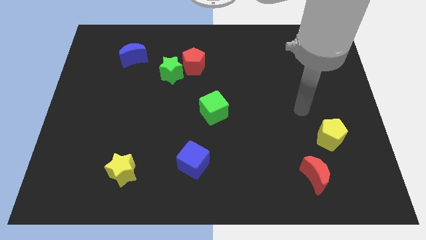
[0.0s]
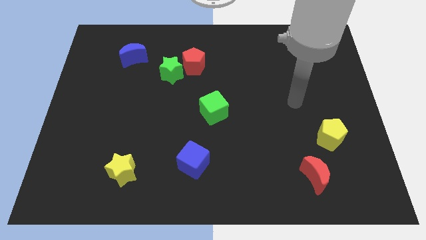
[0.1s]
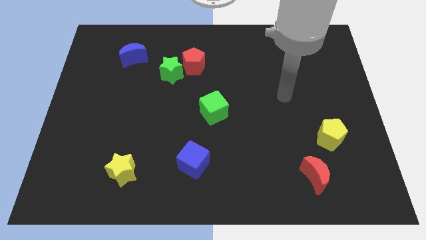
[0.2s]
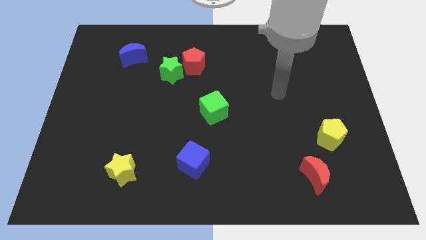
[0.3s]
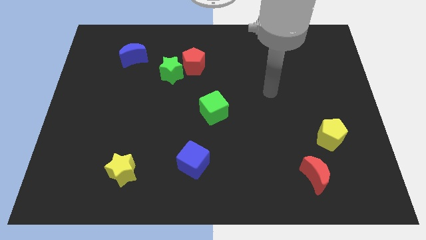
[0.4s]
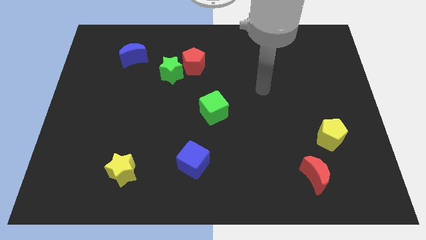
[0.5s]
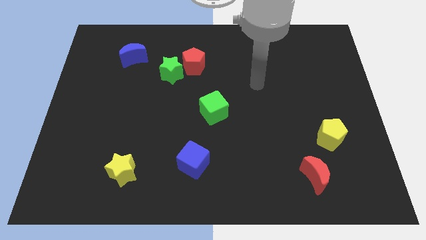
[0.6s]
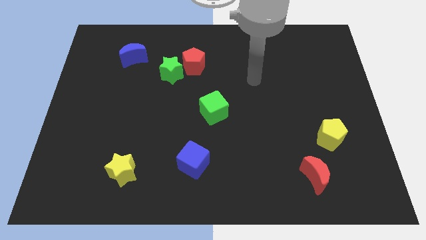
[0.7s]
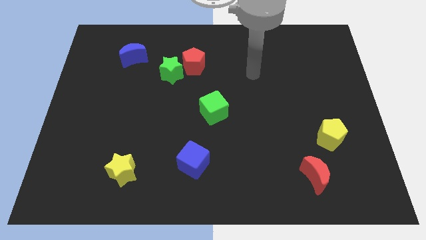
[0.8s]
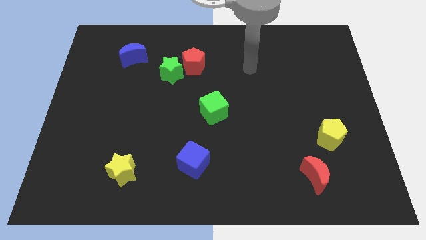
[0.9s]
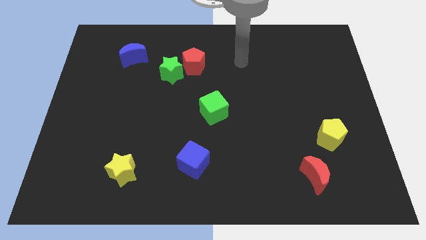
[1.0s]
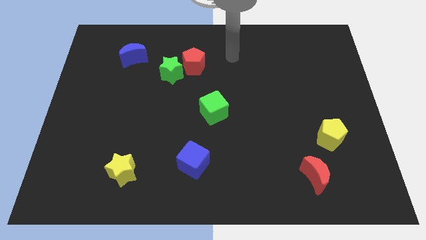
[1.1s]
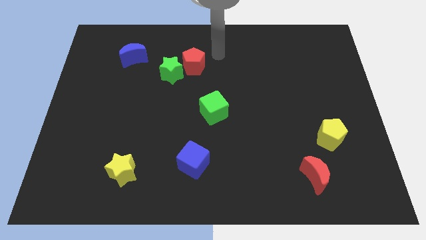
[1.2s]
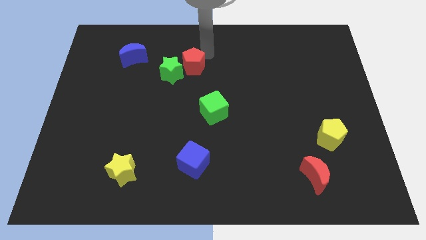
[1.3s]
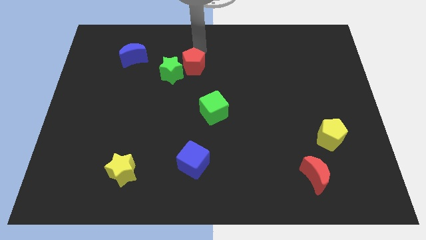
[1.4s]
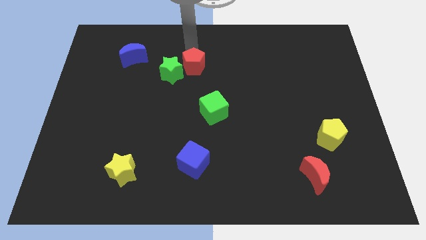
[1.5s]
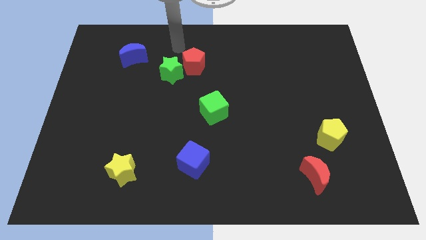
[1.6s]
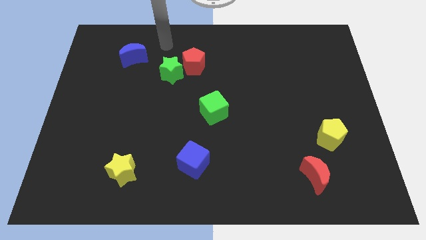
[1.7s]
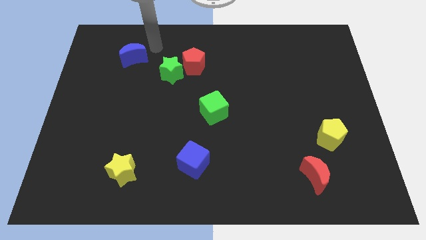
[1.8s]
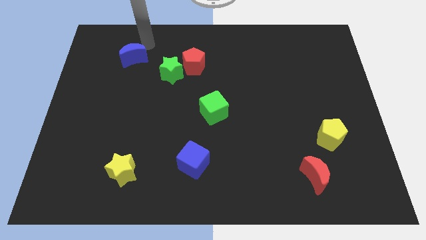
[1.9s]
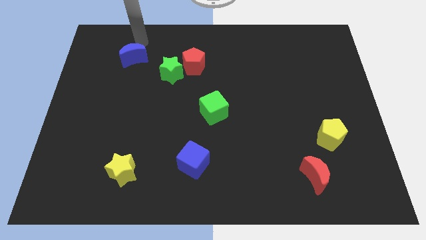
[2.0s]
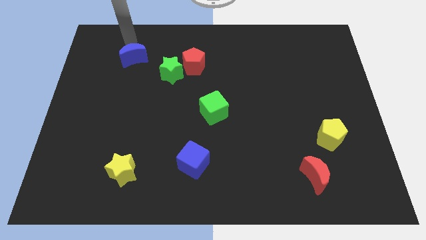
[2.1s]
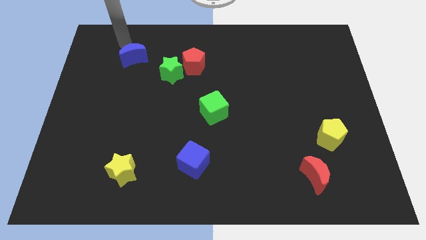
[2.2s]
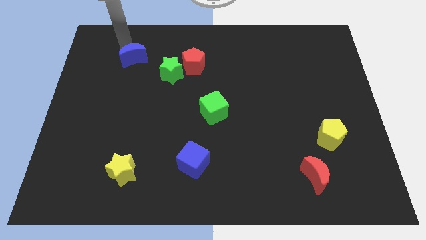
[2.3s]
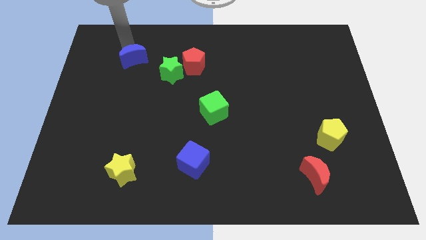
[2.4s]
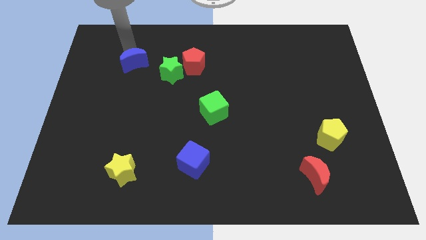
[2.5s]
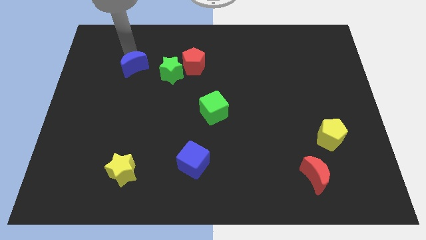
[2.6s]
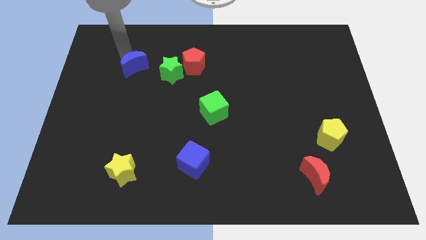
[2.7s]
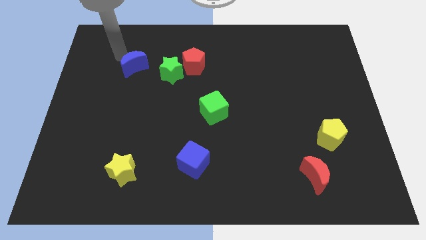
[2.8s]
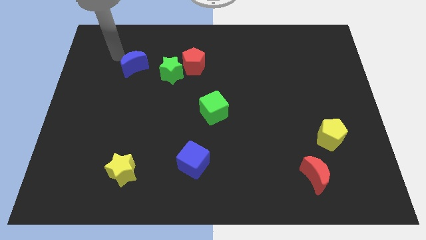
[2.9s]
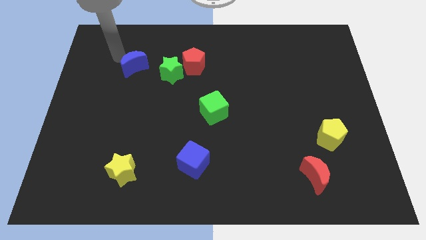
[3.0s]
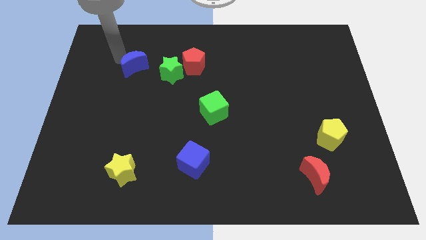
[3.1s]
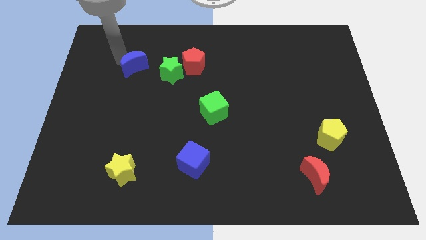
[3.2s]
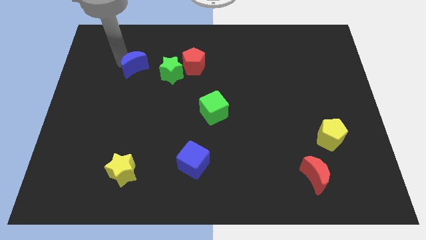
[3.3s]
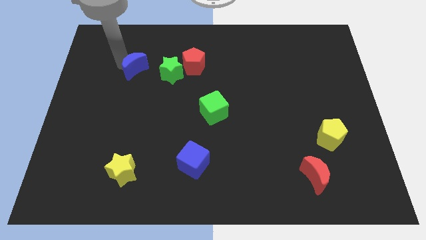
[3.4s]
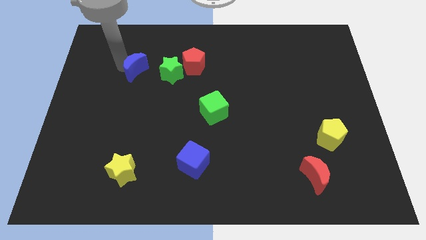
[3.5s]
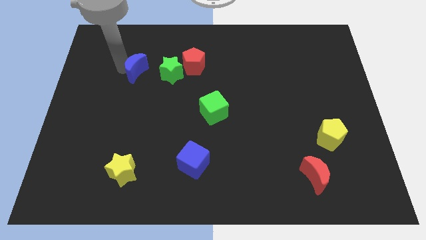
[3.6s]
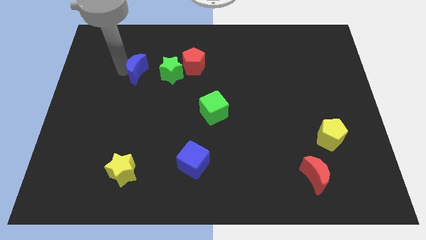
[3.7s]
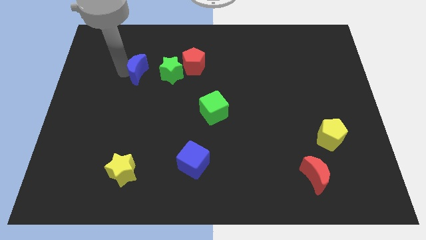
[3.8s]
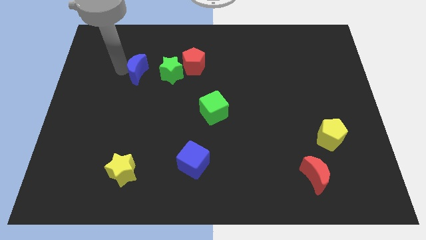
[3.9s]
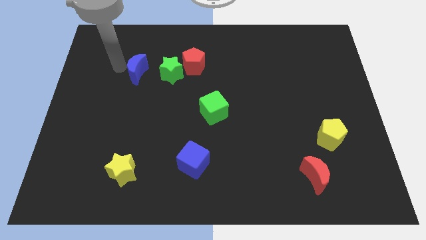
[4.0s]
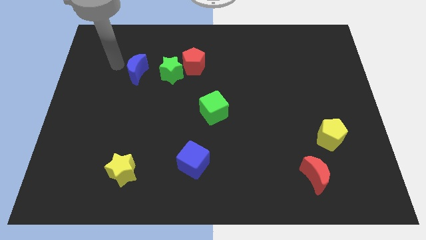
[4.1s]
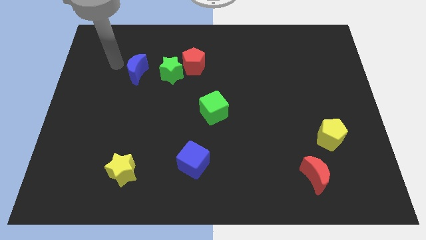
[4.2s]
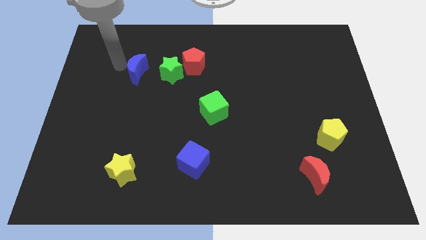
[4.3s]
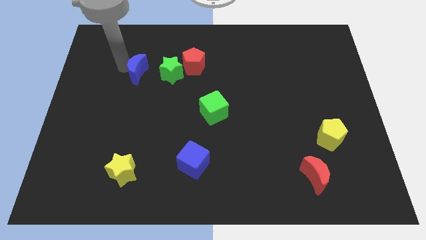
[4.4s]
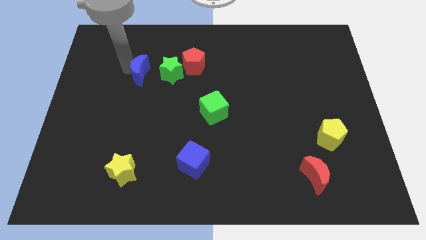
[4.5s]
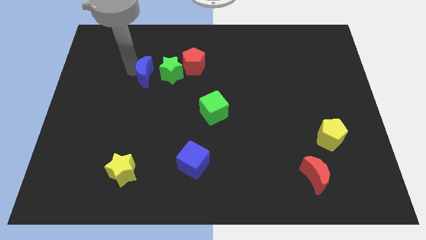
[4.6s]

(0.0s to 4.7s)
slightly slide the blue moon down and right diagonally

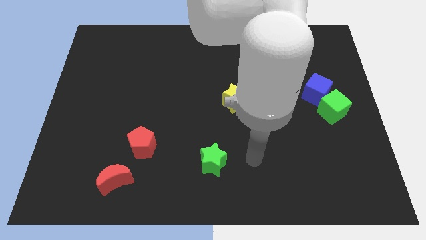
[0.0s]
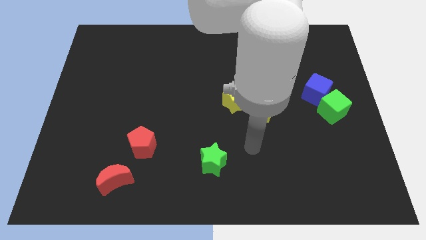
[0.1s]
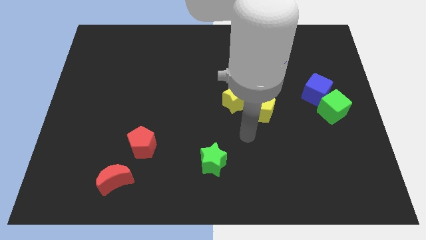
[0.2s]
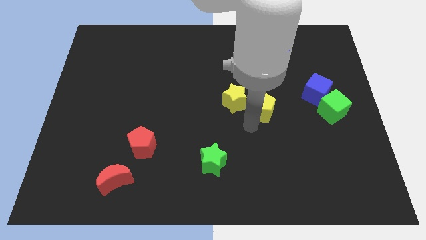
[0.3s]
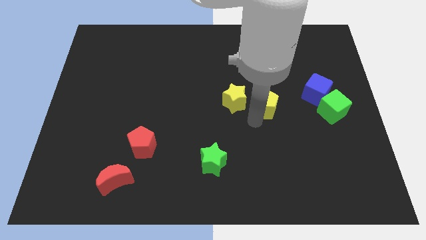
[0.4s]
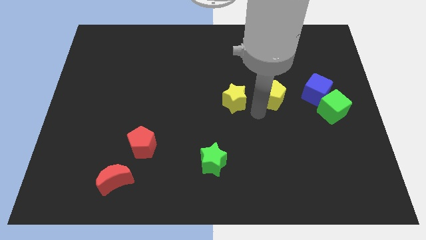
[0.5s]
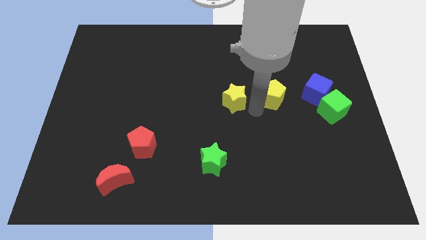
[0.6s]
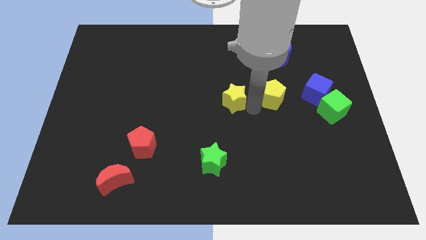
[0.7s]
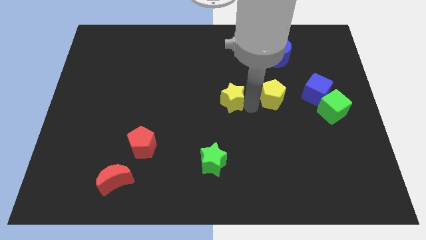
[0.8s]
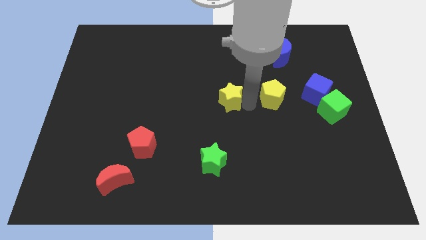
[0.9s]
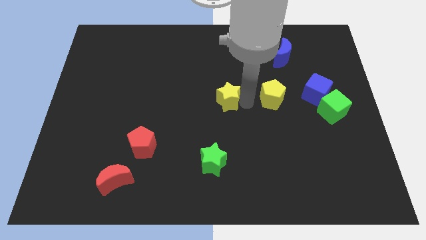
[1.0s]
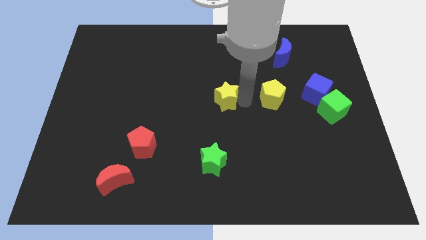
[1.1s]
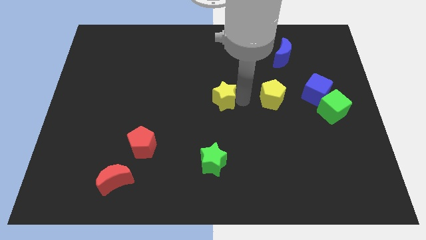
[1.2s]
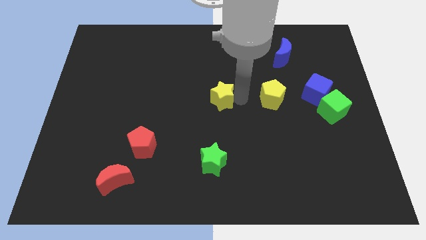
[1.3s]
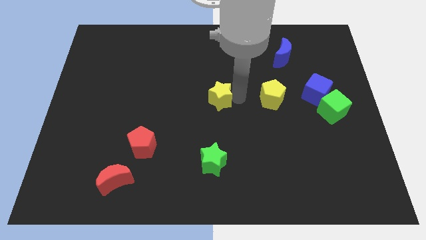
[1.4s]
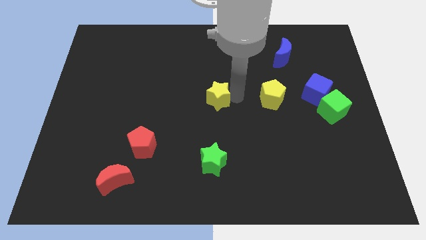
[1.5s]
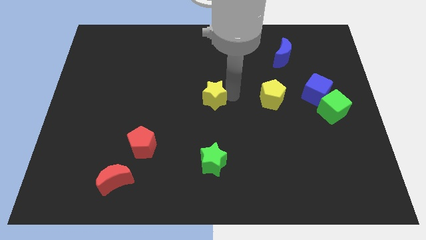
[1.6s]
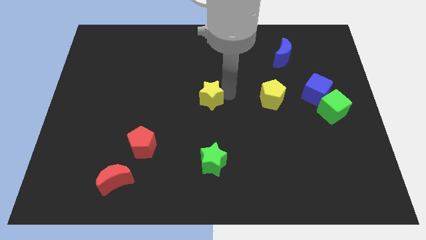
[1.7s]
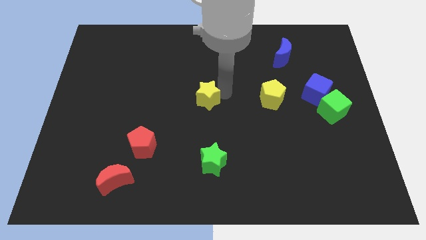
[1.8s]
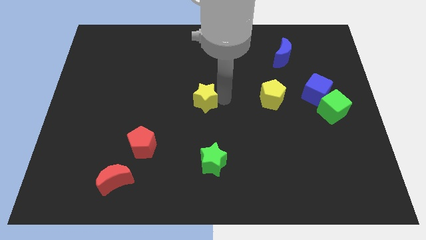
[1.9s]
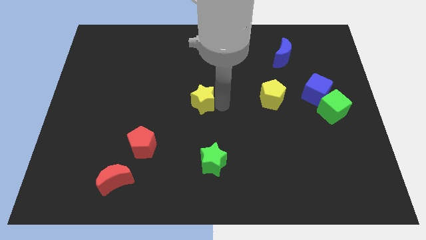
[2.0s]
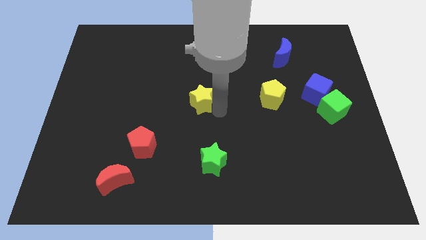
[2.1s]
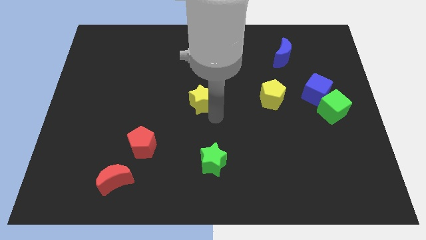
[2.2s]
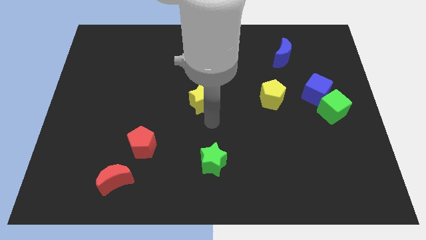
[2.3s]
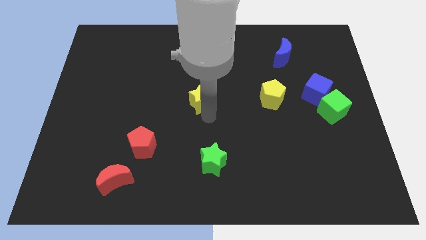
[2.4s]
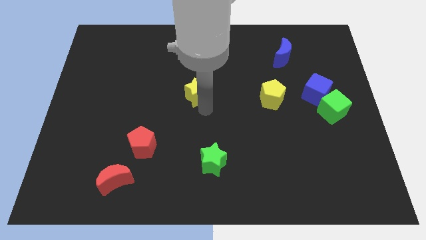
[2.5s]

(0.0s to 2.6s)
move the yellow star up and to the left slightly

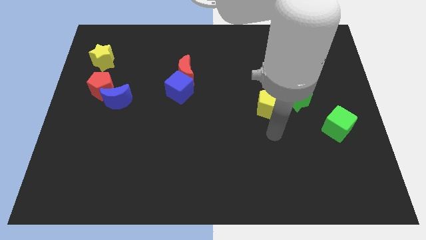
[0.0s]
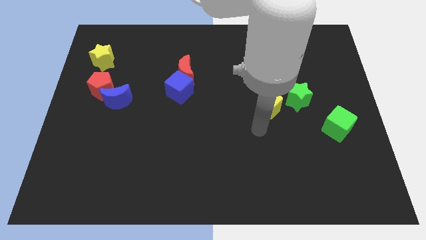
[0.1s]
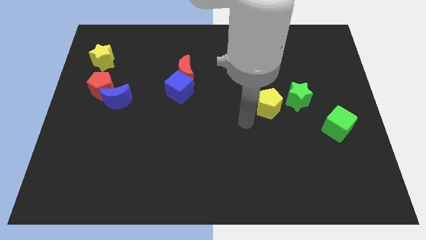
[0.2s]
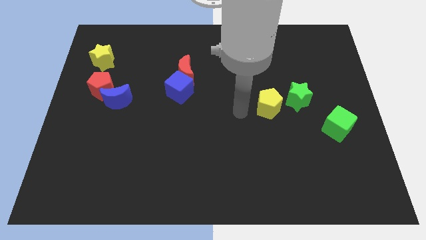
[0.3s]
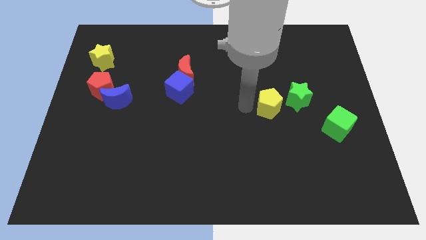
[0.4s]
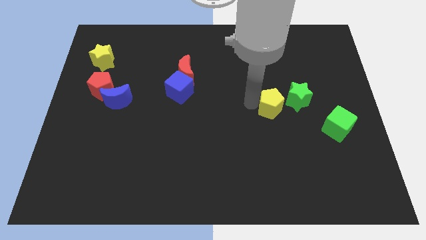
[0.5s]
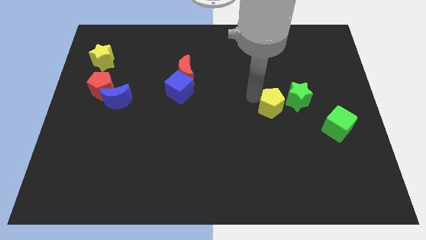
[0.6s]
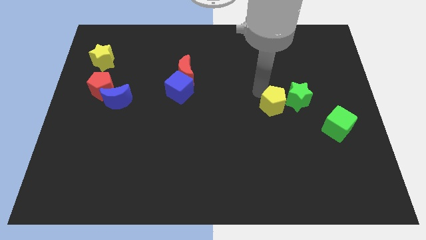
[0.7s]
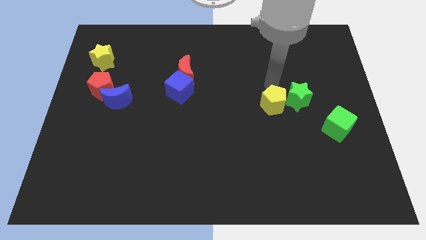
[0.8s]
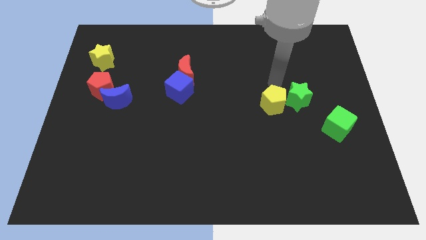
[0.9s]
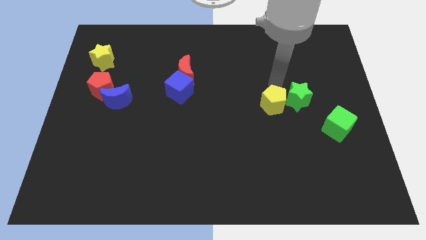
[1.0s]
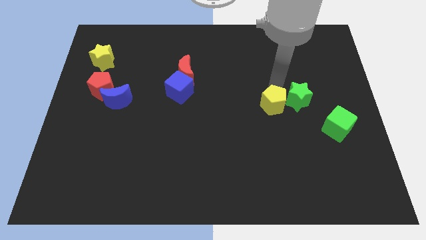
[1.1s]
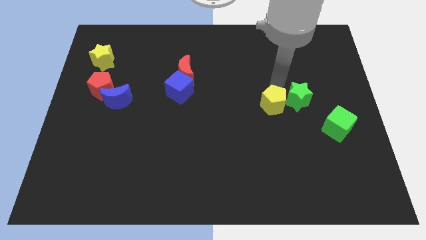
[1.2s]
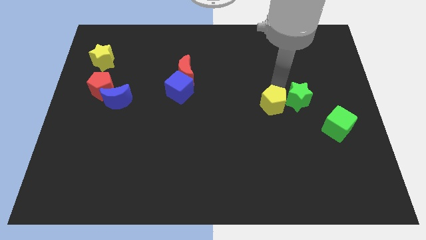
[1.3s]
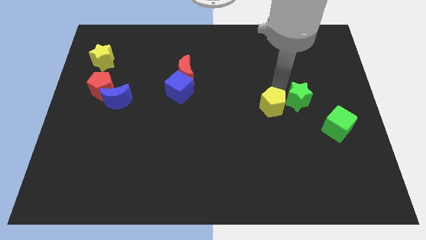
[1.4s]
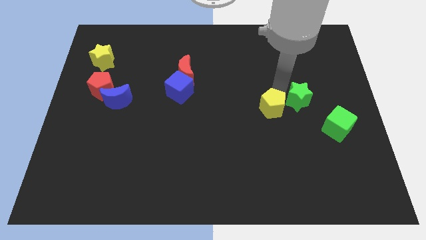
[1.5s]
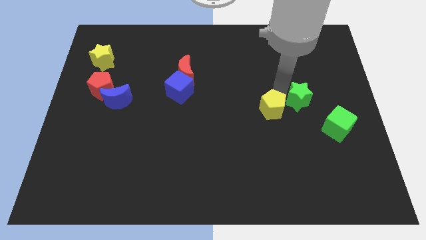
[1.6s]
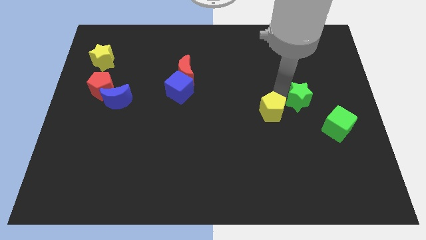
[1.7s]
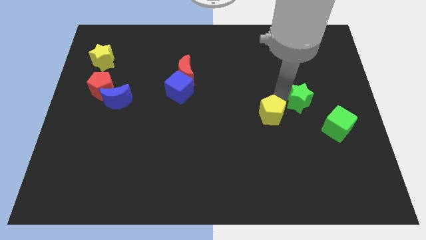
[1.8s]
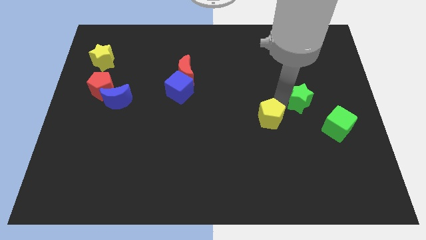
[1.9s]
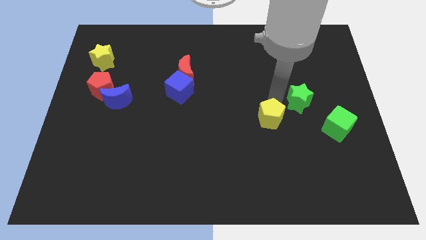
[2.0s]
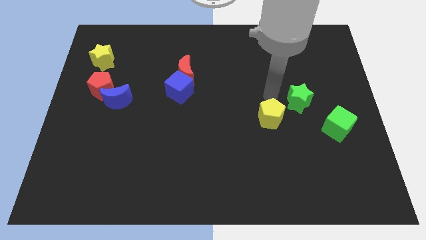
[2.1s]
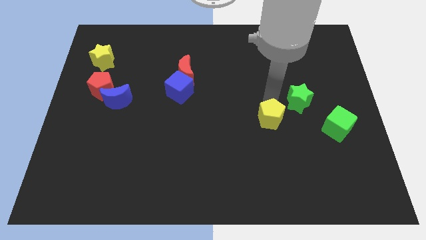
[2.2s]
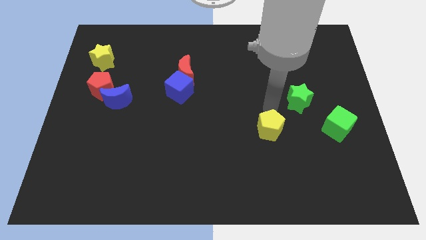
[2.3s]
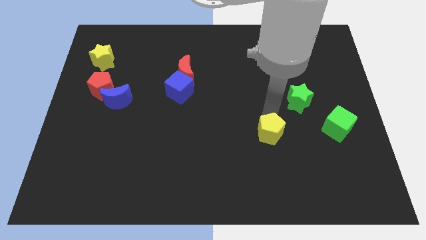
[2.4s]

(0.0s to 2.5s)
slightly push the yellow pentagon down
